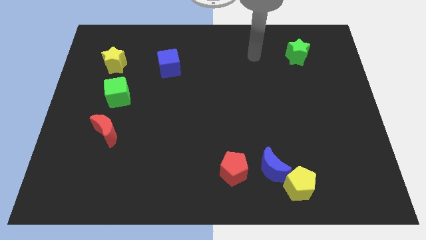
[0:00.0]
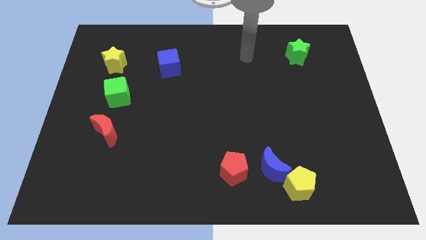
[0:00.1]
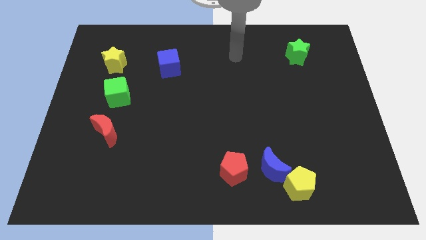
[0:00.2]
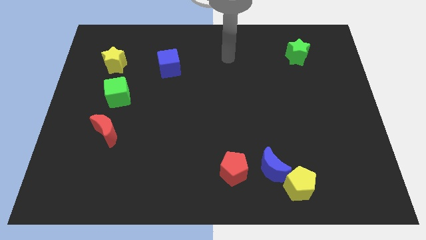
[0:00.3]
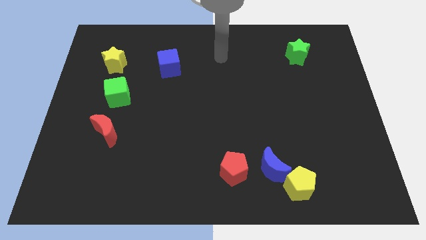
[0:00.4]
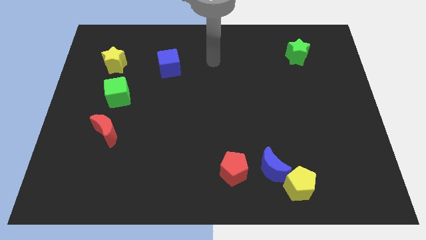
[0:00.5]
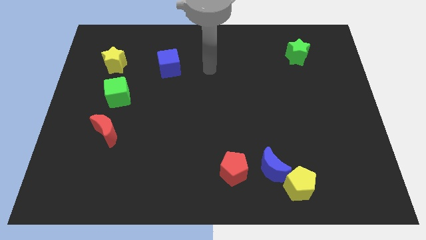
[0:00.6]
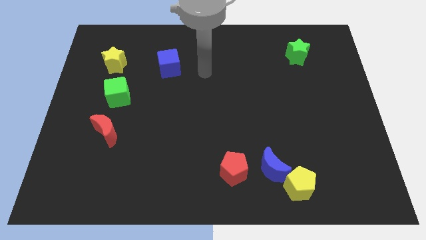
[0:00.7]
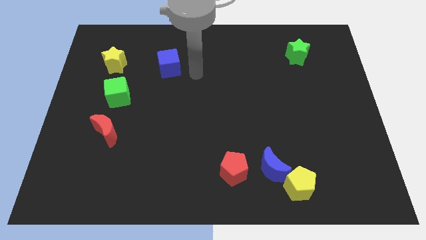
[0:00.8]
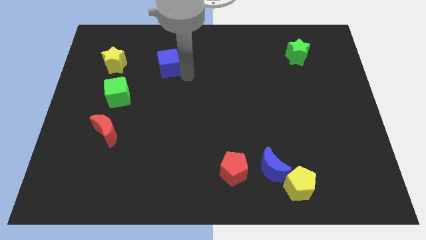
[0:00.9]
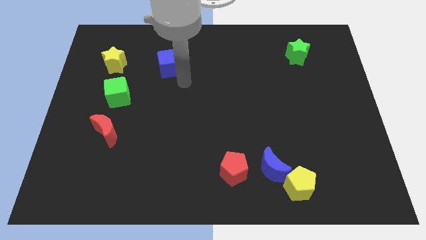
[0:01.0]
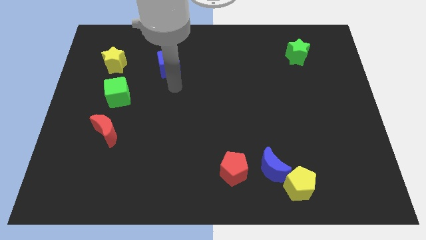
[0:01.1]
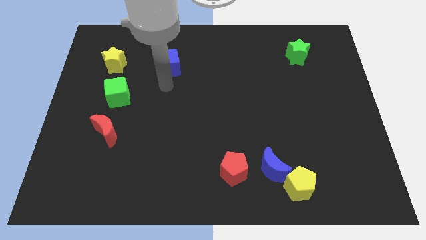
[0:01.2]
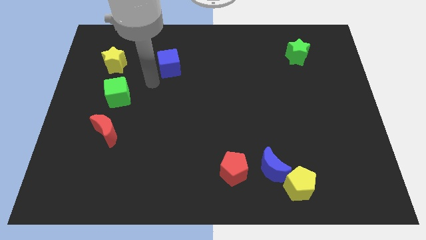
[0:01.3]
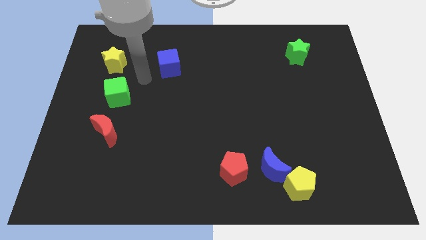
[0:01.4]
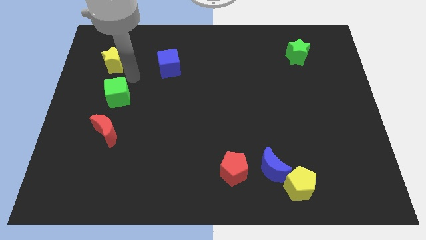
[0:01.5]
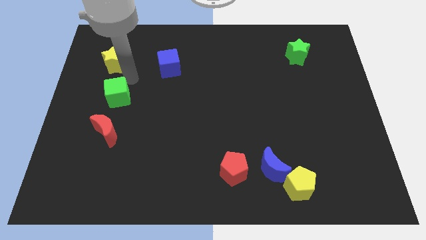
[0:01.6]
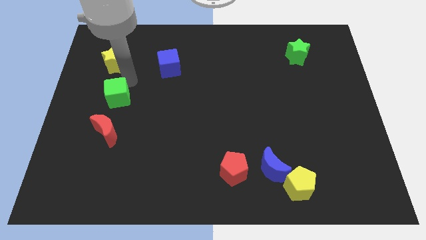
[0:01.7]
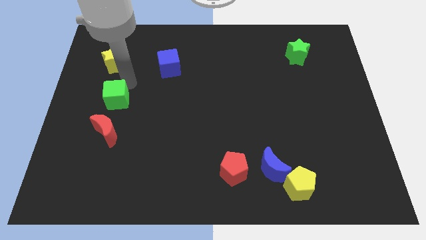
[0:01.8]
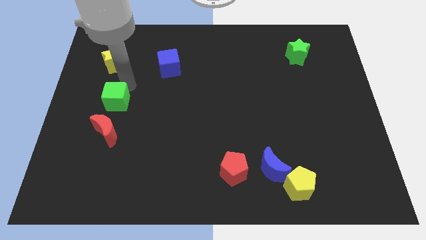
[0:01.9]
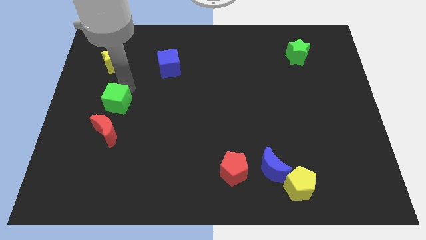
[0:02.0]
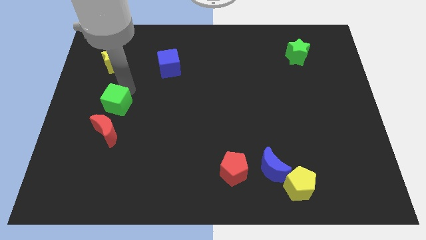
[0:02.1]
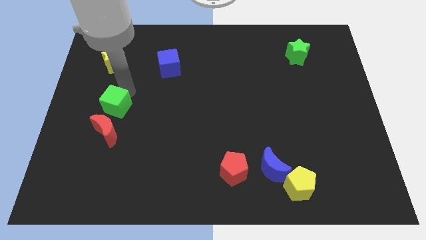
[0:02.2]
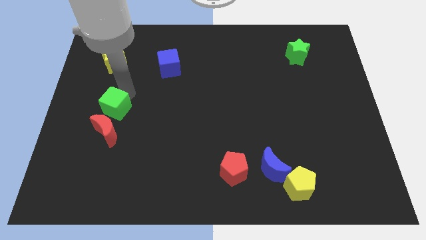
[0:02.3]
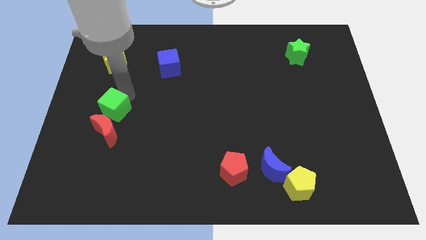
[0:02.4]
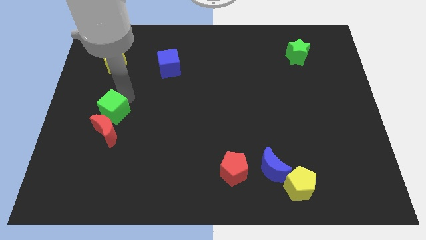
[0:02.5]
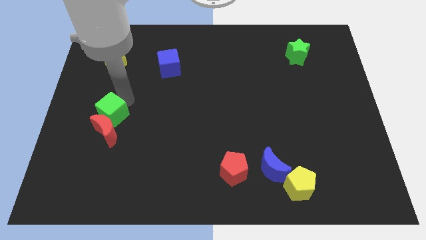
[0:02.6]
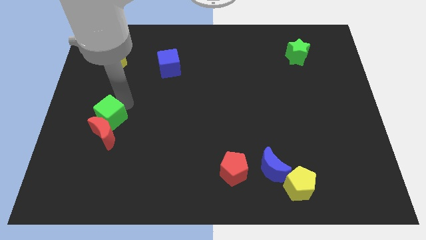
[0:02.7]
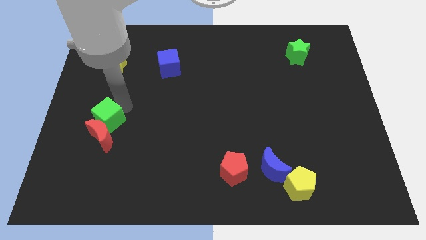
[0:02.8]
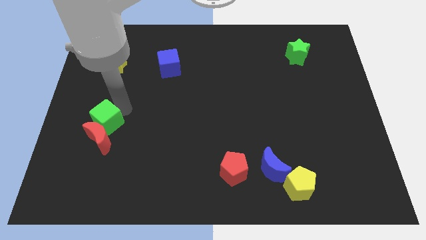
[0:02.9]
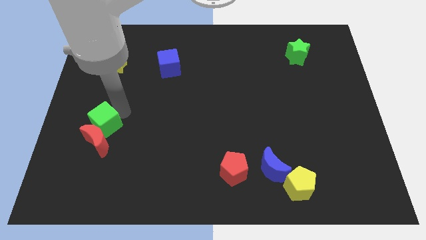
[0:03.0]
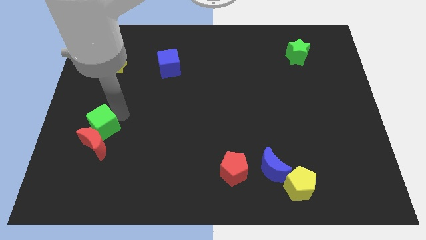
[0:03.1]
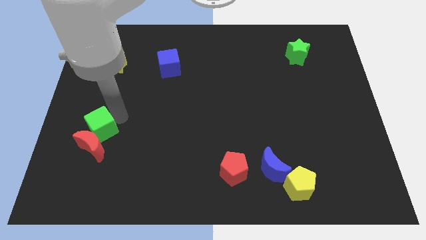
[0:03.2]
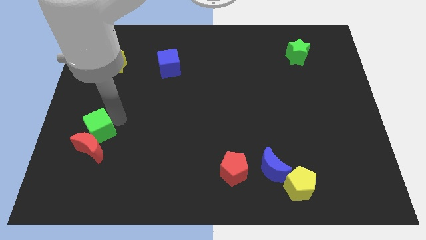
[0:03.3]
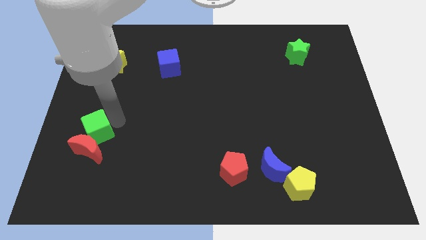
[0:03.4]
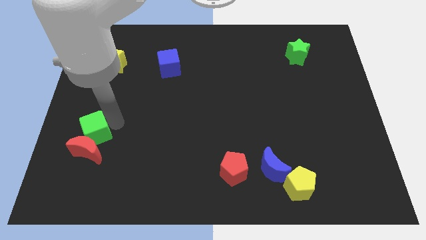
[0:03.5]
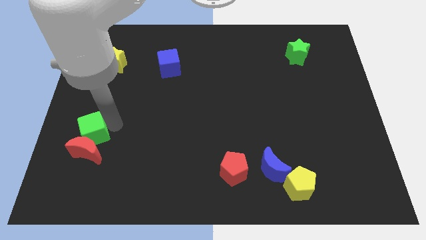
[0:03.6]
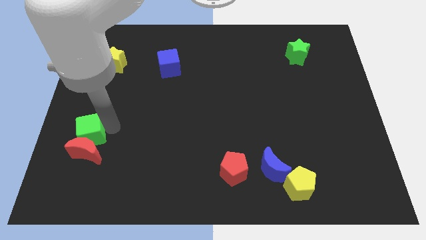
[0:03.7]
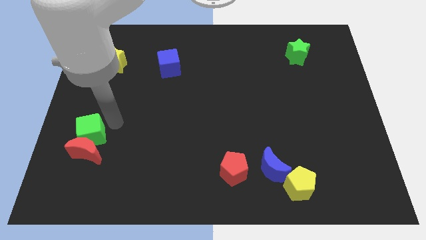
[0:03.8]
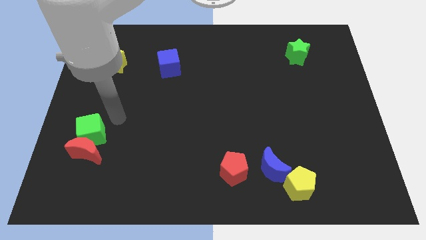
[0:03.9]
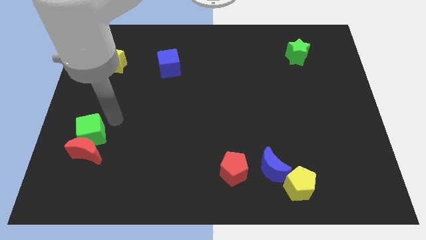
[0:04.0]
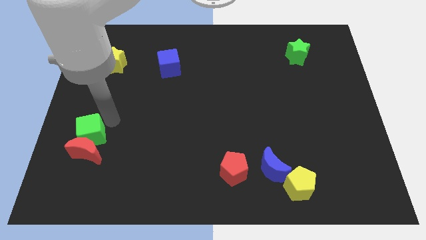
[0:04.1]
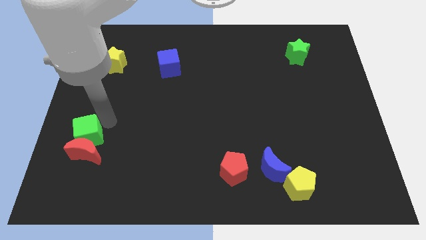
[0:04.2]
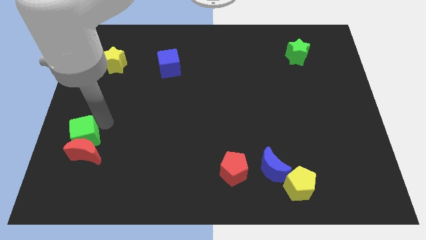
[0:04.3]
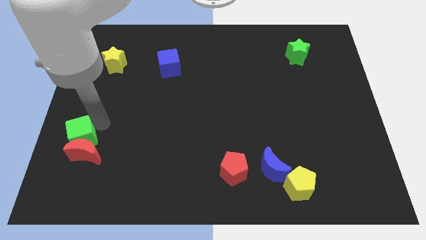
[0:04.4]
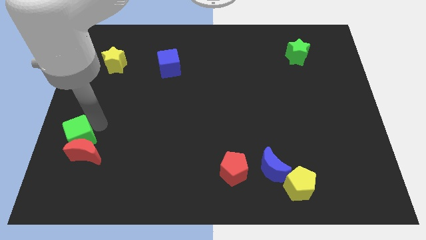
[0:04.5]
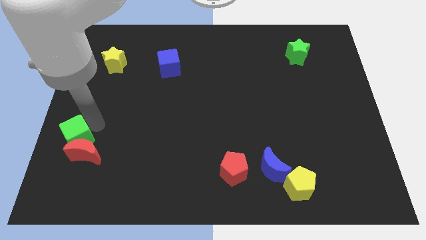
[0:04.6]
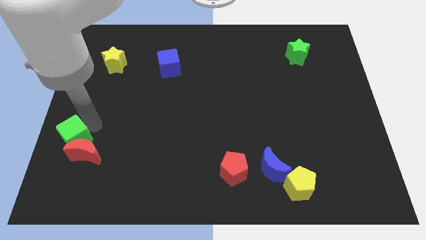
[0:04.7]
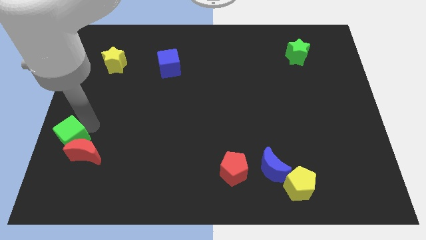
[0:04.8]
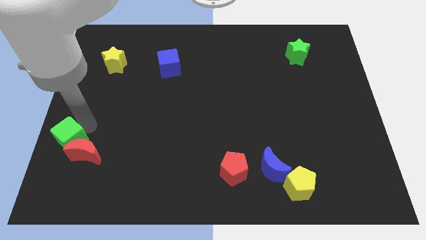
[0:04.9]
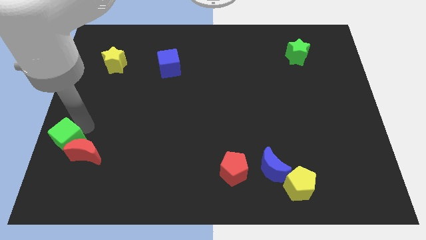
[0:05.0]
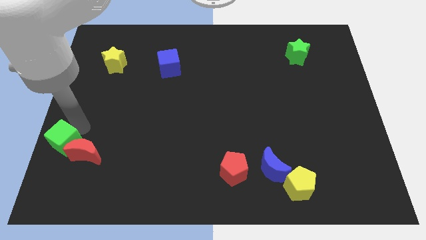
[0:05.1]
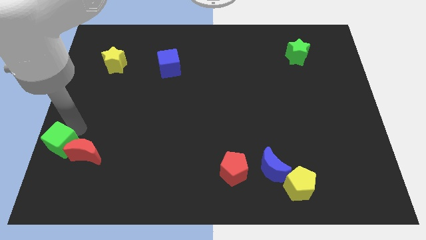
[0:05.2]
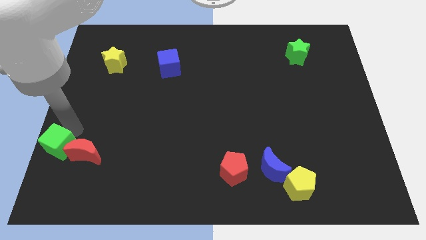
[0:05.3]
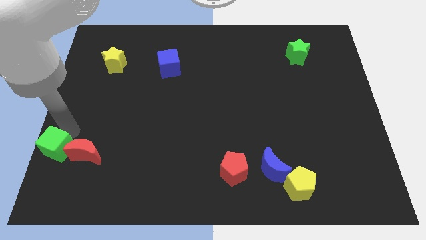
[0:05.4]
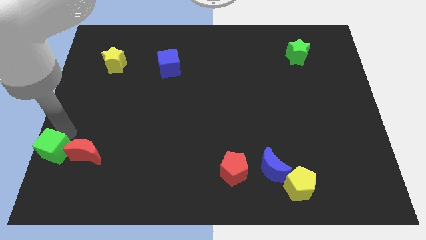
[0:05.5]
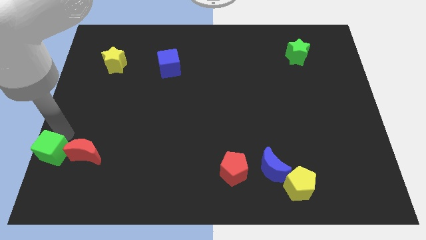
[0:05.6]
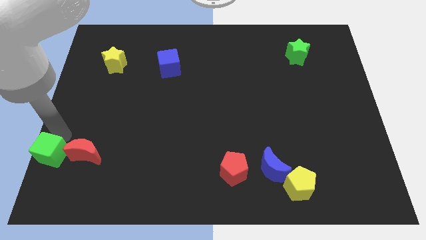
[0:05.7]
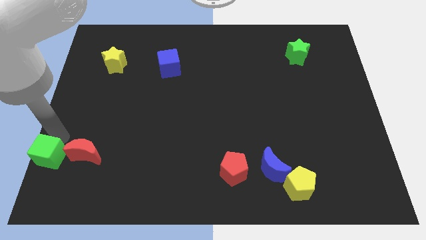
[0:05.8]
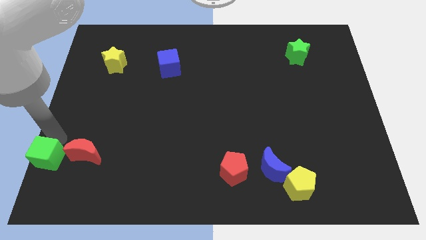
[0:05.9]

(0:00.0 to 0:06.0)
slide the green cube to the lower left corner

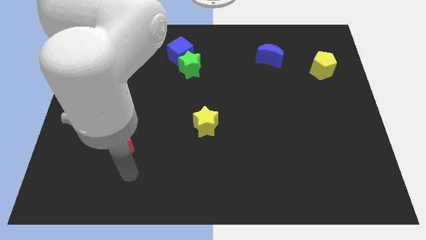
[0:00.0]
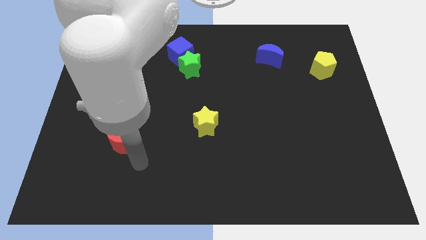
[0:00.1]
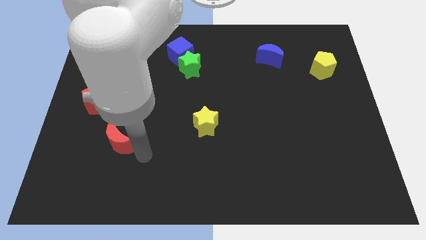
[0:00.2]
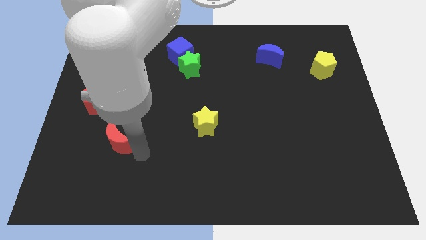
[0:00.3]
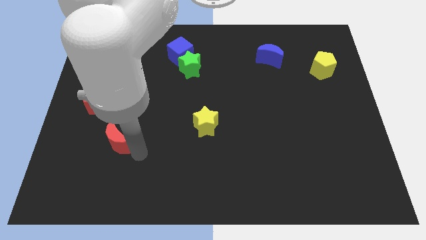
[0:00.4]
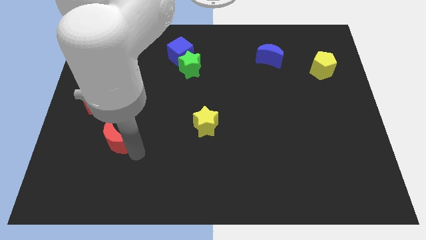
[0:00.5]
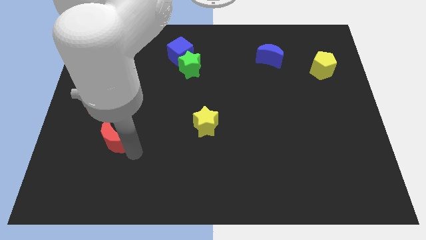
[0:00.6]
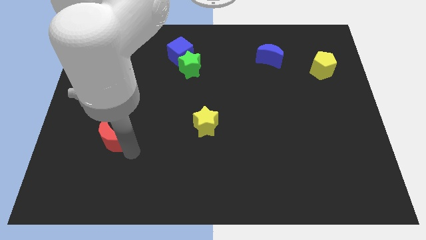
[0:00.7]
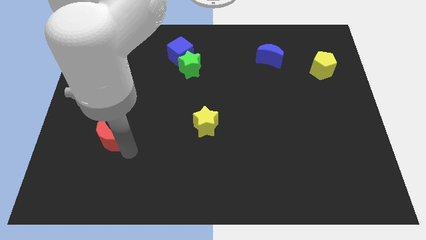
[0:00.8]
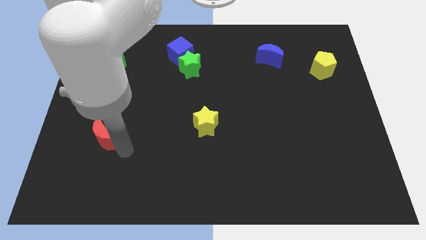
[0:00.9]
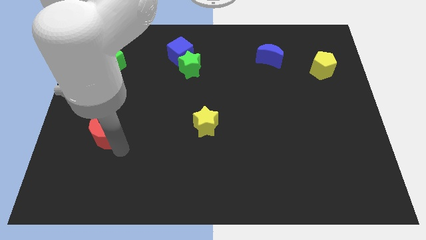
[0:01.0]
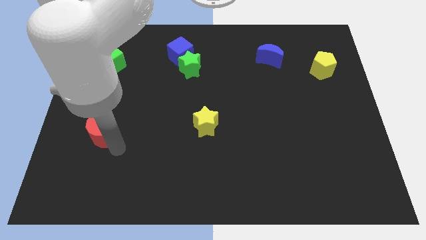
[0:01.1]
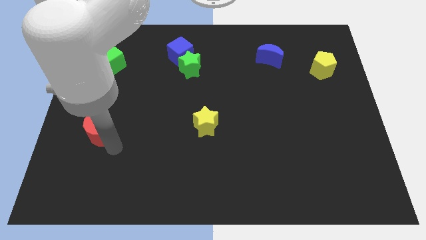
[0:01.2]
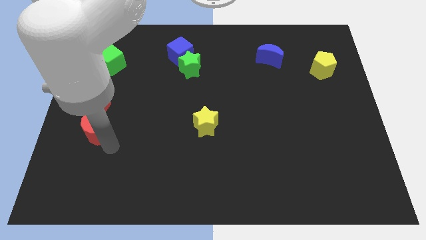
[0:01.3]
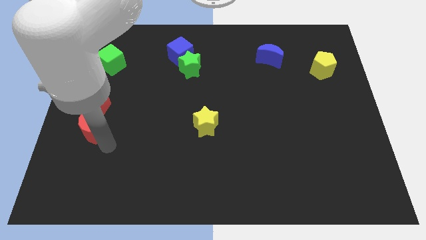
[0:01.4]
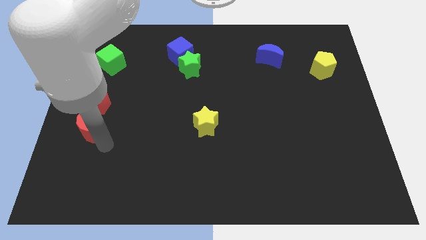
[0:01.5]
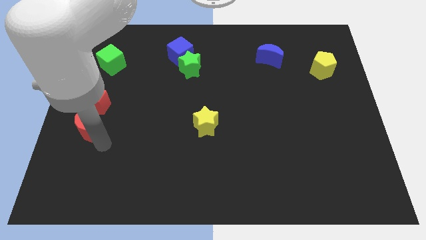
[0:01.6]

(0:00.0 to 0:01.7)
push the red moon to the center left

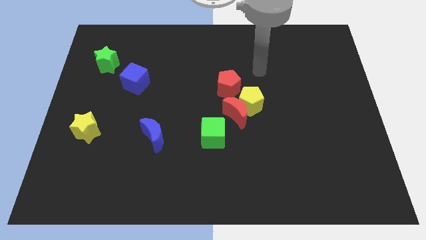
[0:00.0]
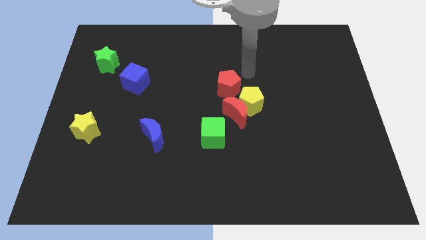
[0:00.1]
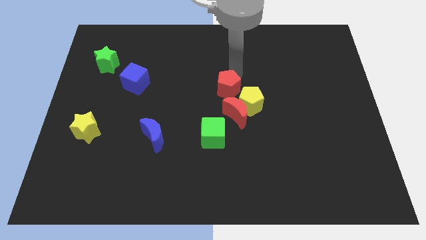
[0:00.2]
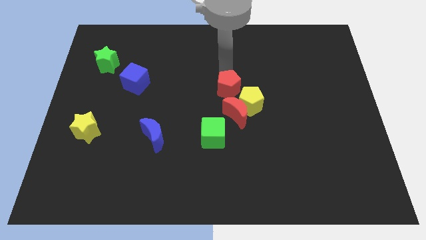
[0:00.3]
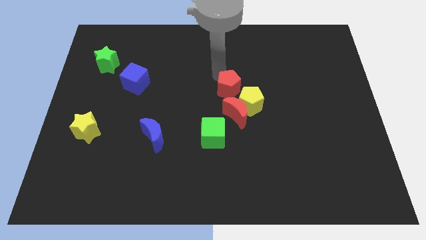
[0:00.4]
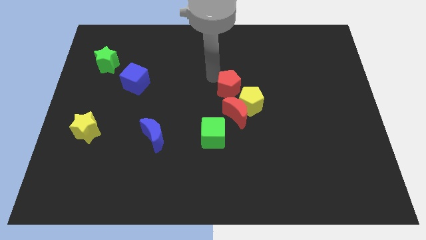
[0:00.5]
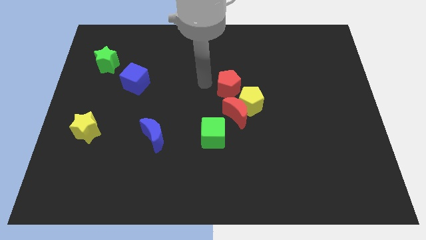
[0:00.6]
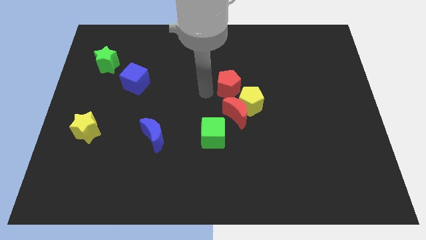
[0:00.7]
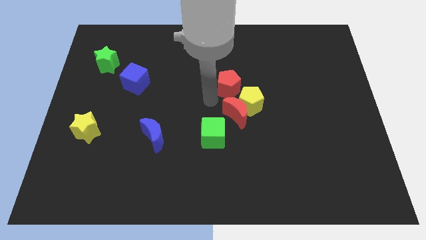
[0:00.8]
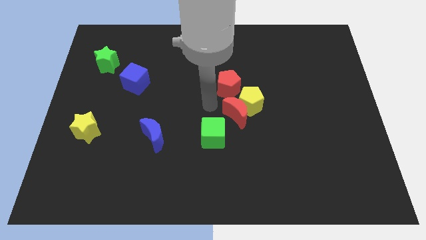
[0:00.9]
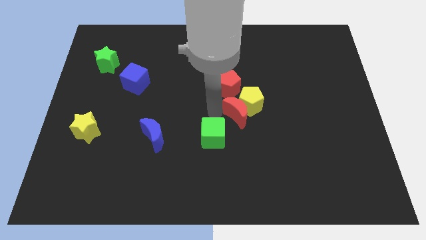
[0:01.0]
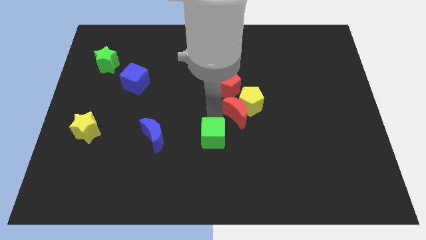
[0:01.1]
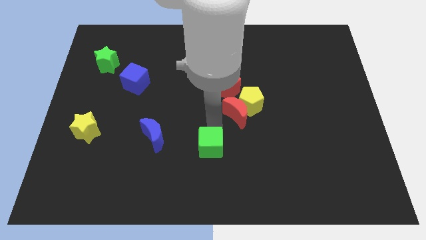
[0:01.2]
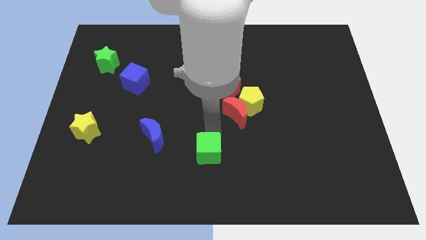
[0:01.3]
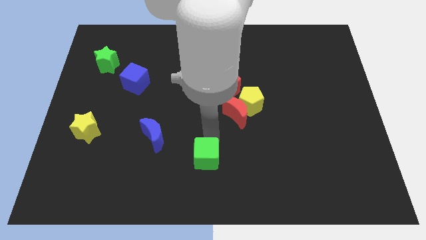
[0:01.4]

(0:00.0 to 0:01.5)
move the green cube to the bottom side
